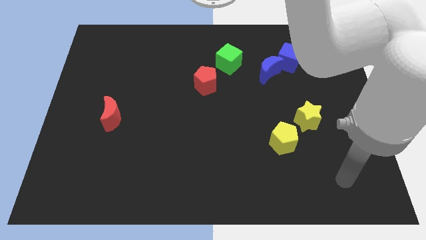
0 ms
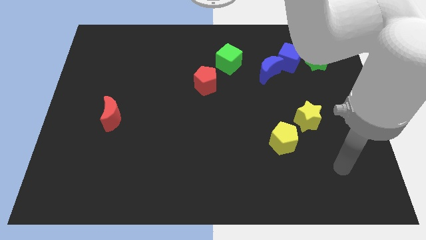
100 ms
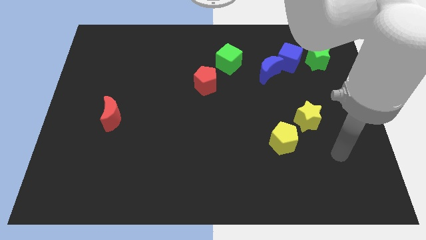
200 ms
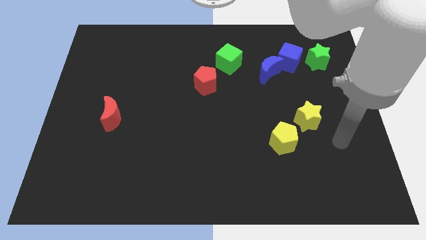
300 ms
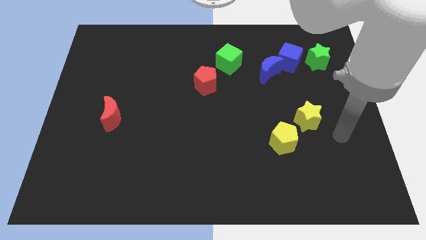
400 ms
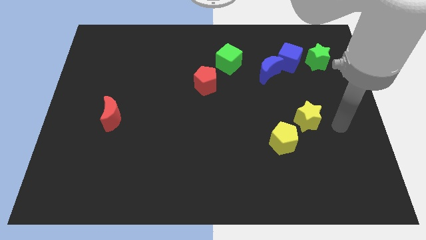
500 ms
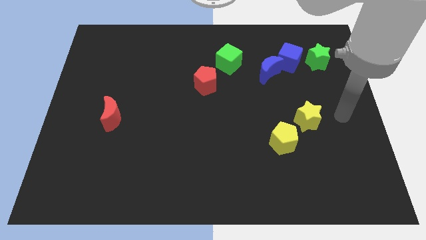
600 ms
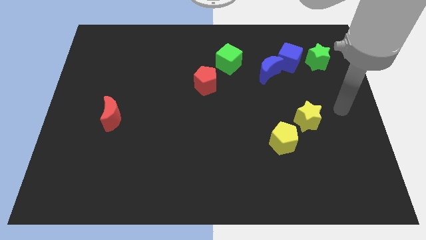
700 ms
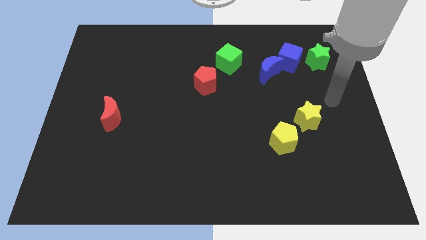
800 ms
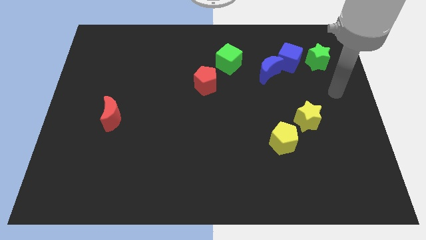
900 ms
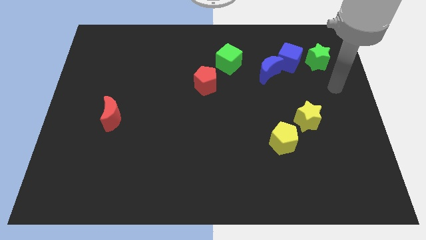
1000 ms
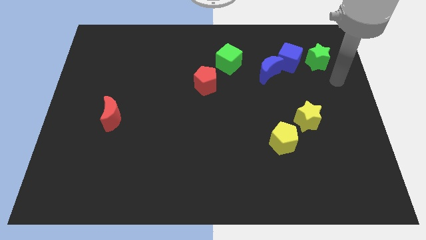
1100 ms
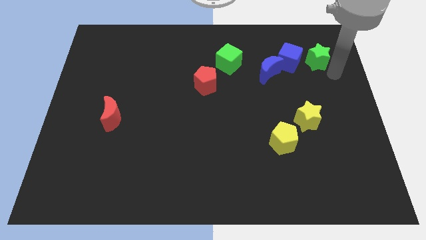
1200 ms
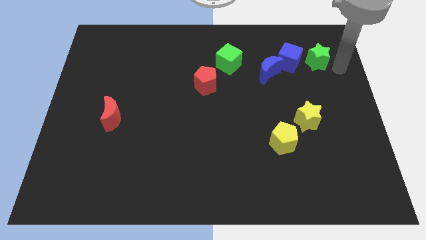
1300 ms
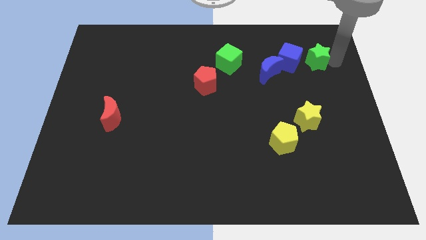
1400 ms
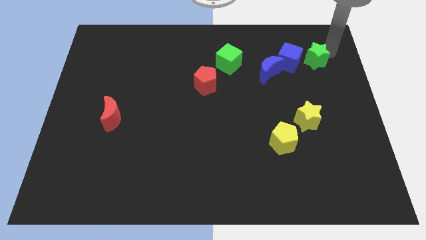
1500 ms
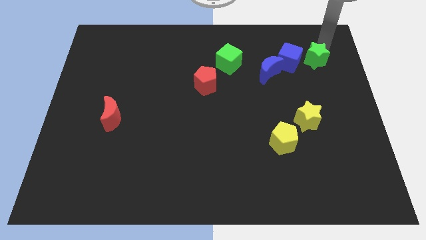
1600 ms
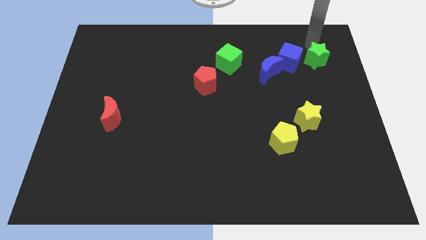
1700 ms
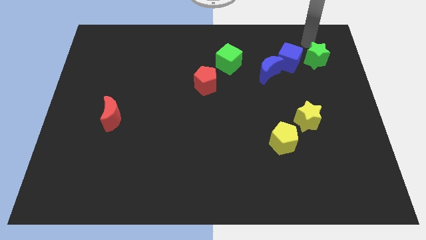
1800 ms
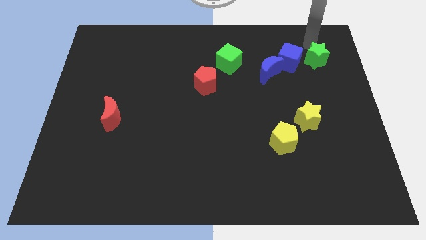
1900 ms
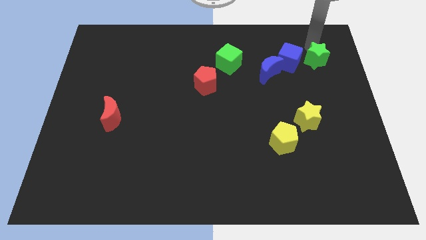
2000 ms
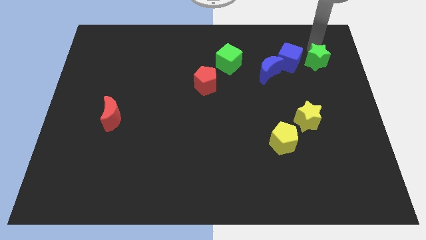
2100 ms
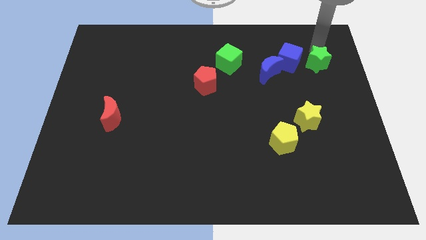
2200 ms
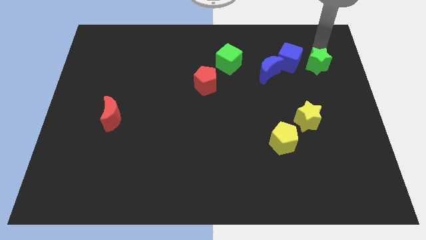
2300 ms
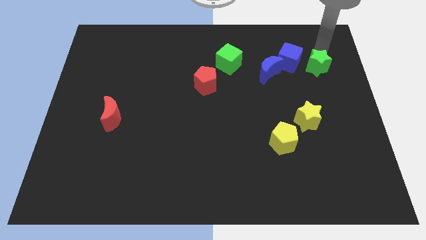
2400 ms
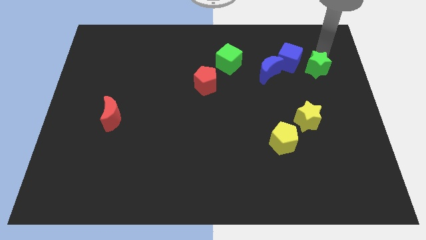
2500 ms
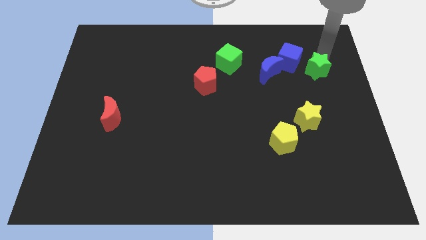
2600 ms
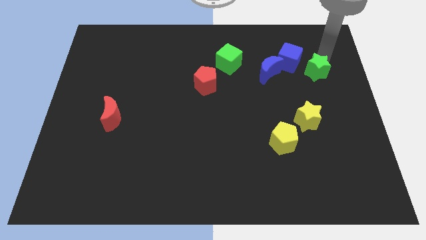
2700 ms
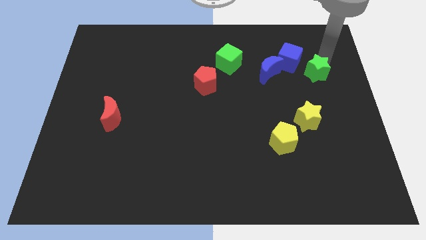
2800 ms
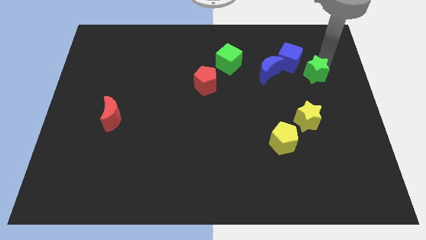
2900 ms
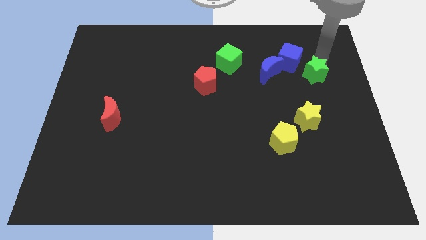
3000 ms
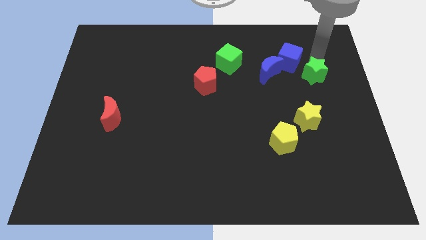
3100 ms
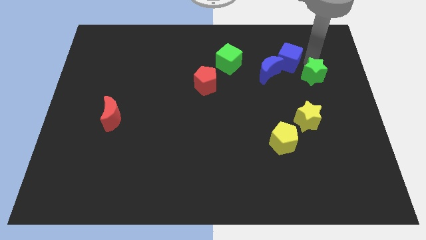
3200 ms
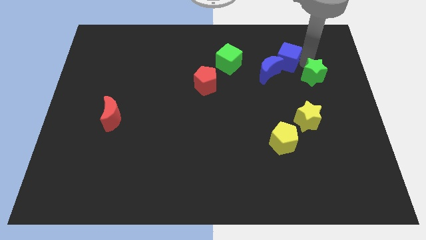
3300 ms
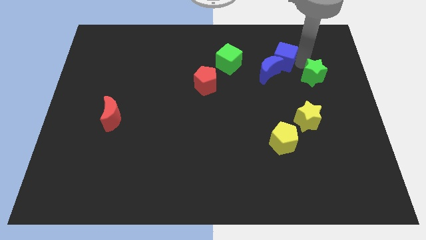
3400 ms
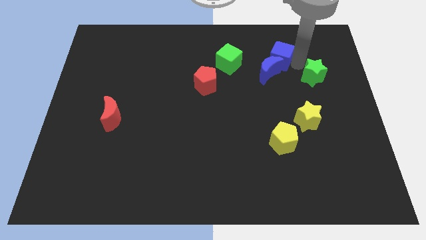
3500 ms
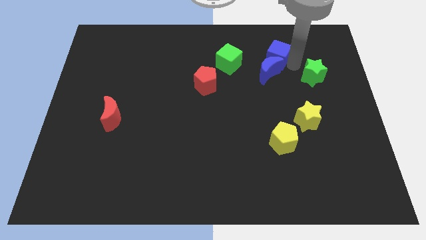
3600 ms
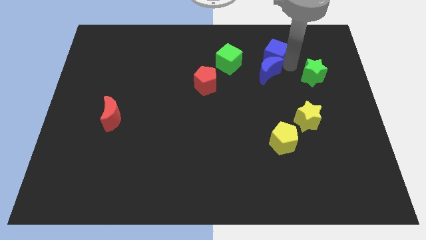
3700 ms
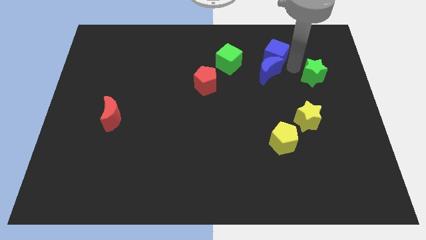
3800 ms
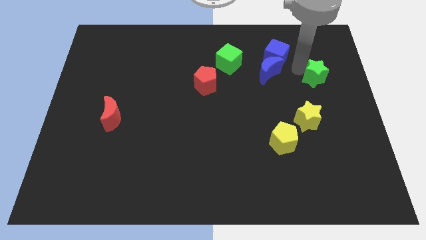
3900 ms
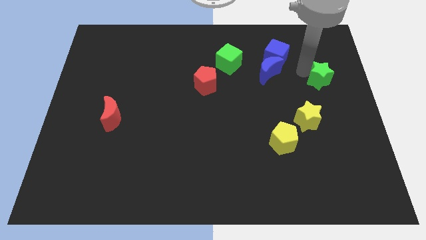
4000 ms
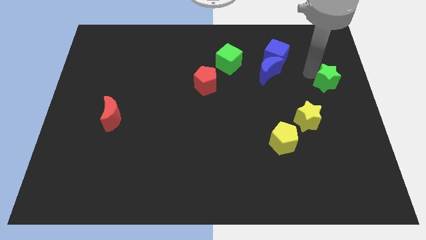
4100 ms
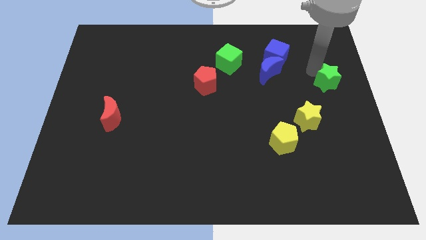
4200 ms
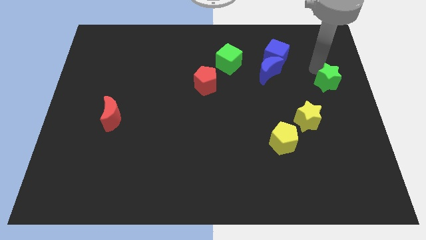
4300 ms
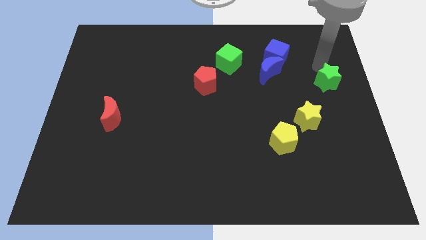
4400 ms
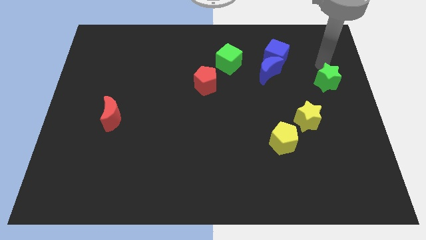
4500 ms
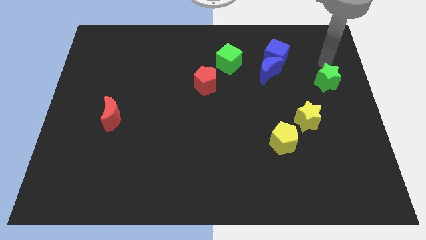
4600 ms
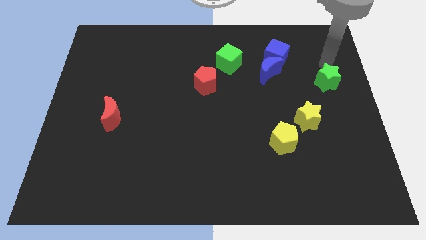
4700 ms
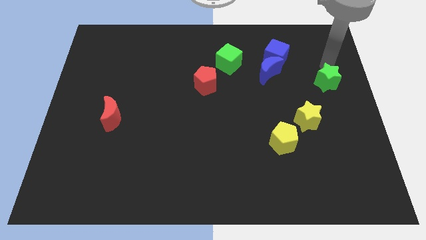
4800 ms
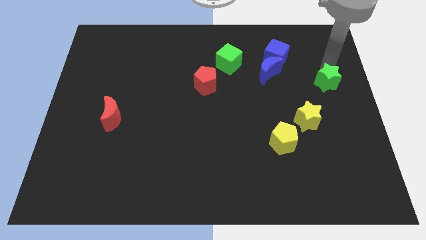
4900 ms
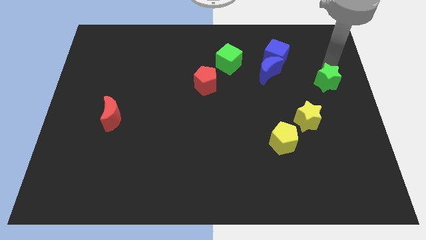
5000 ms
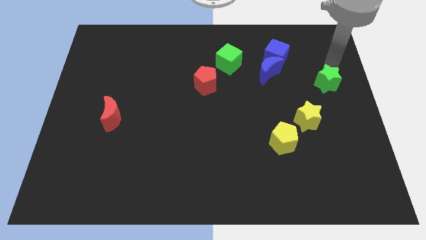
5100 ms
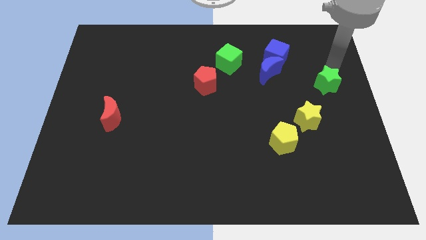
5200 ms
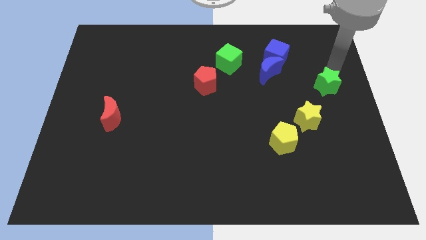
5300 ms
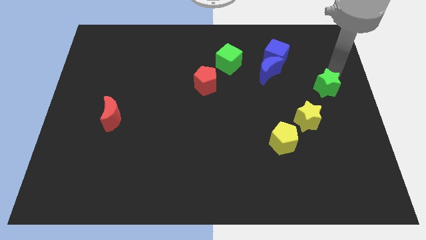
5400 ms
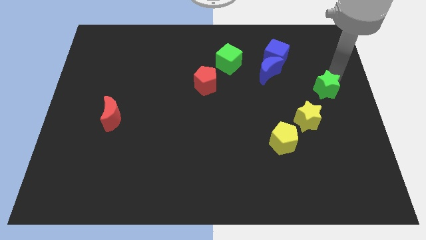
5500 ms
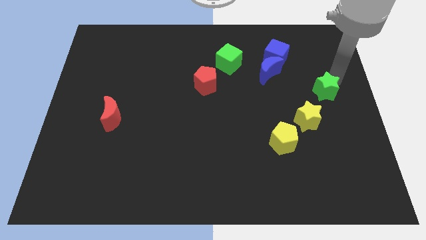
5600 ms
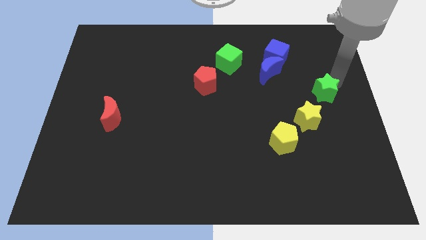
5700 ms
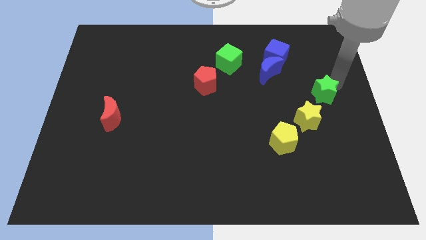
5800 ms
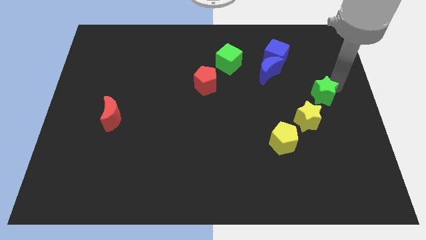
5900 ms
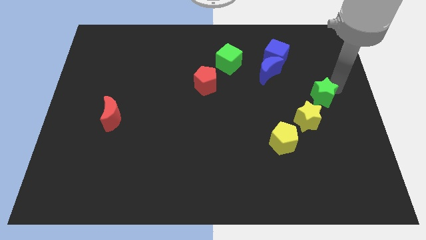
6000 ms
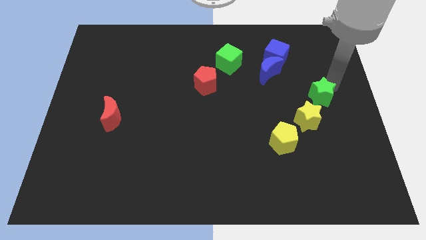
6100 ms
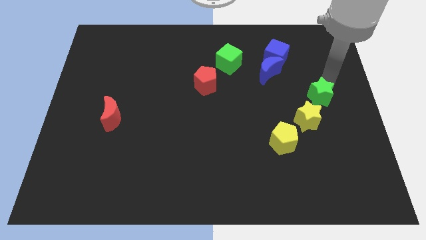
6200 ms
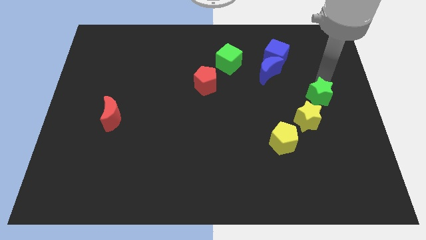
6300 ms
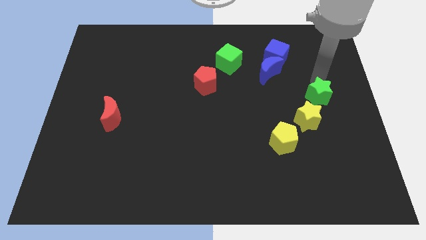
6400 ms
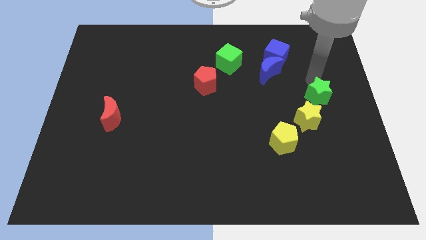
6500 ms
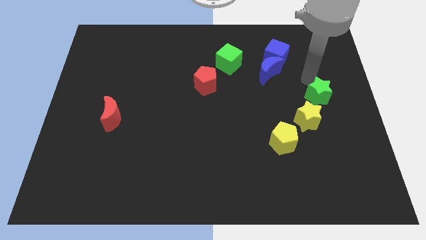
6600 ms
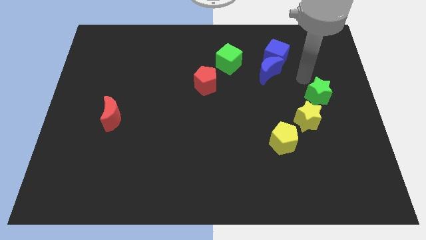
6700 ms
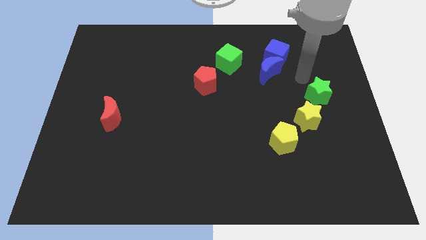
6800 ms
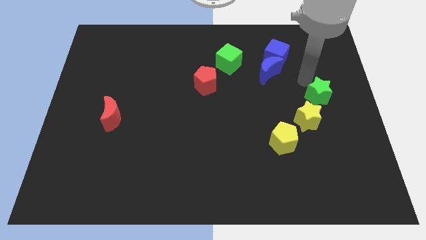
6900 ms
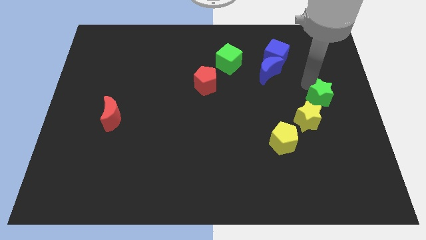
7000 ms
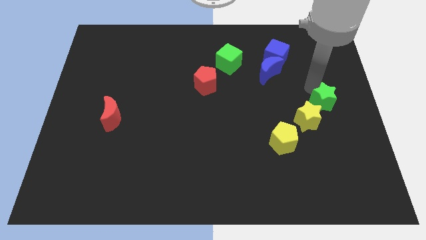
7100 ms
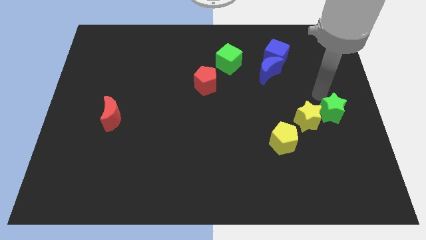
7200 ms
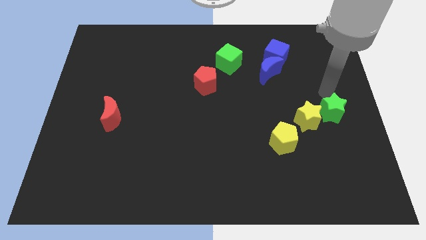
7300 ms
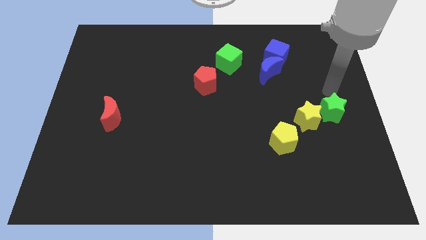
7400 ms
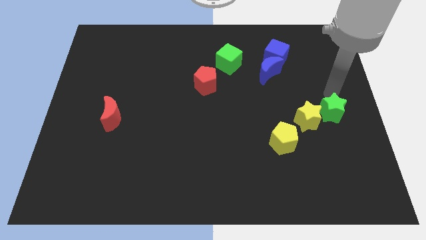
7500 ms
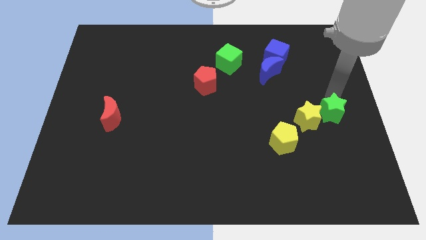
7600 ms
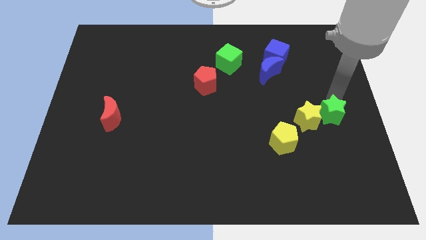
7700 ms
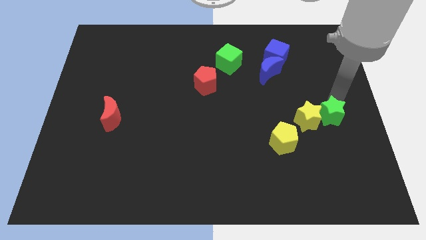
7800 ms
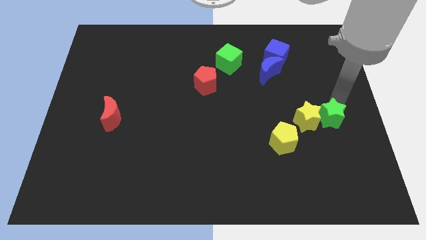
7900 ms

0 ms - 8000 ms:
put the green star diagonally down and to the right of the yellow star

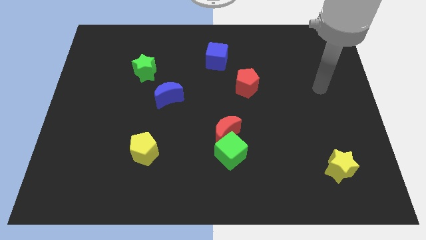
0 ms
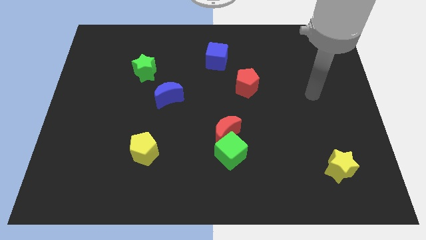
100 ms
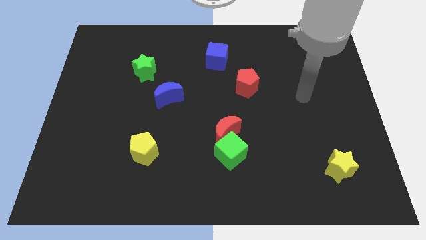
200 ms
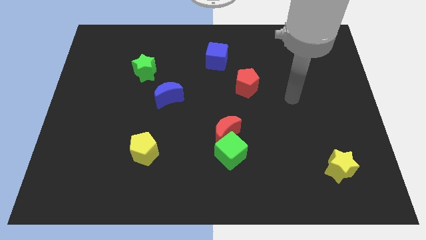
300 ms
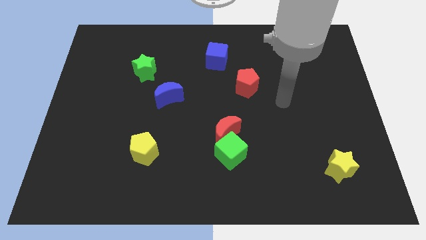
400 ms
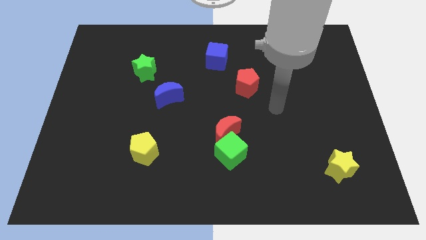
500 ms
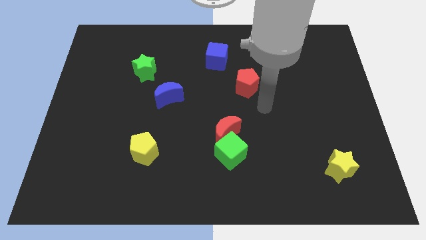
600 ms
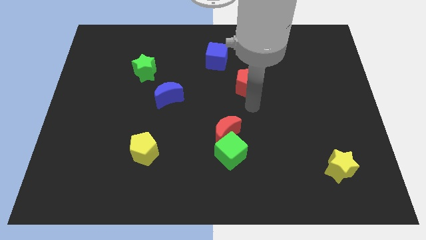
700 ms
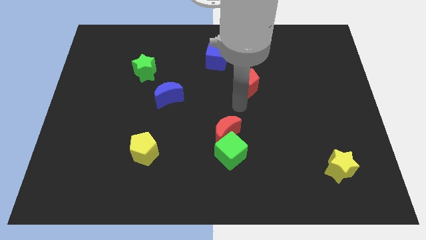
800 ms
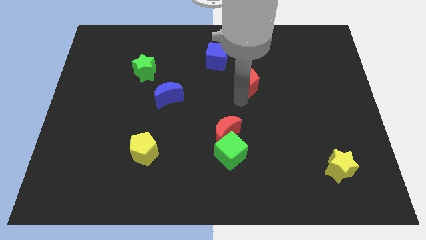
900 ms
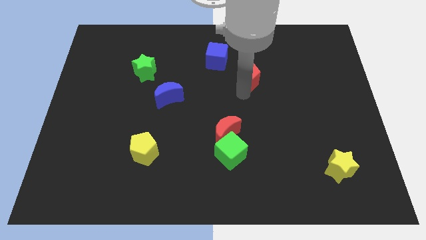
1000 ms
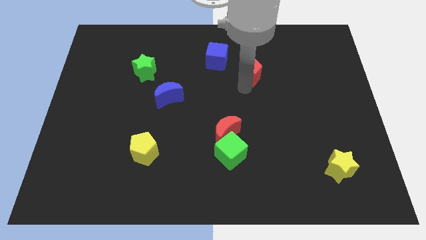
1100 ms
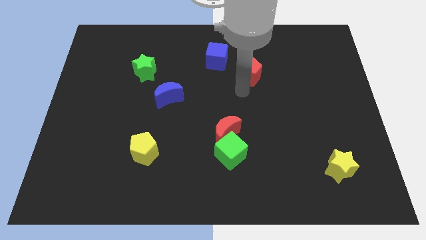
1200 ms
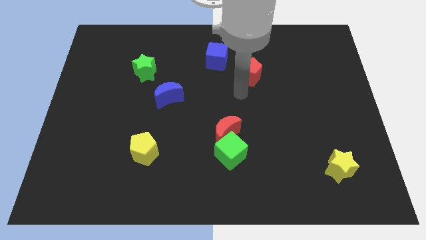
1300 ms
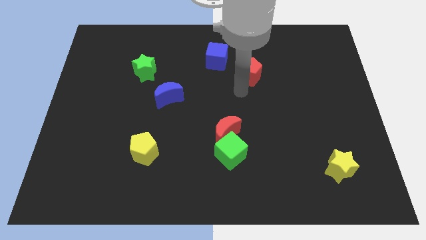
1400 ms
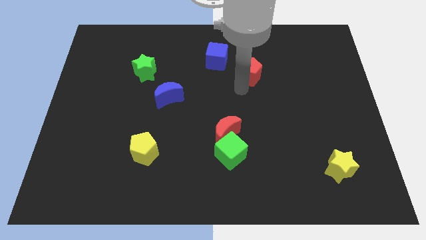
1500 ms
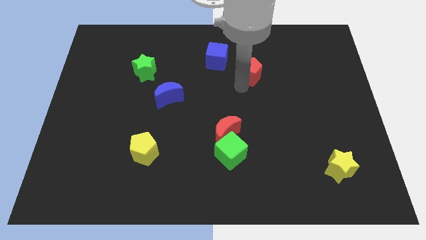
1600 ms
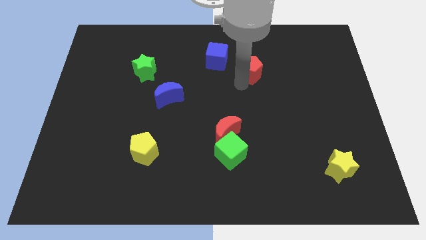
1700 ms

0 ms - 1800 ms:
slide the red pentagon to the right side of the blue cube
